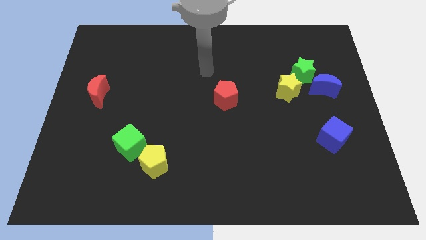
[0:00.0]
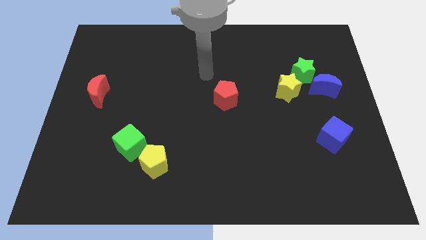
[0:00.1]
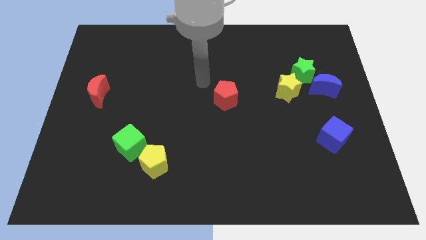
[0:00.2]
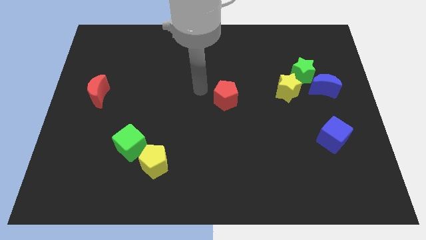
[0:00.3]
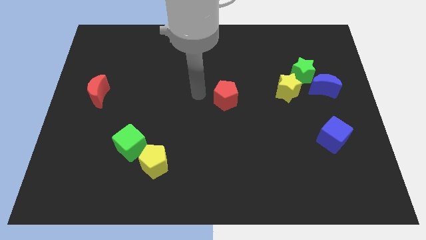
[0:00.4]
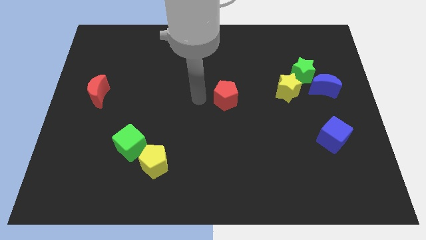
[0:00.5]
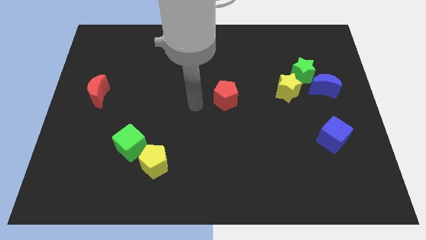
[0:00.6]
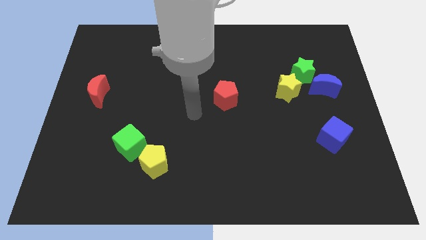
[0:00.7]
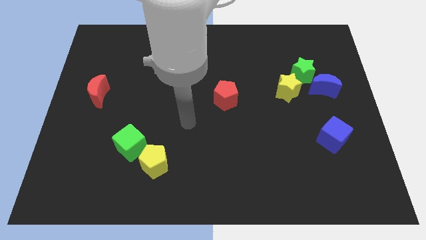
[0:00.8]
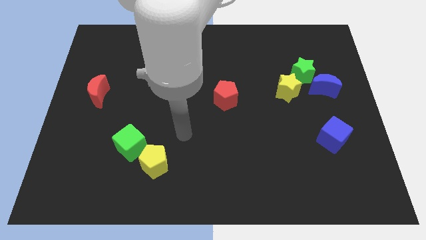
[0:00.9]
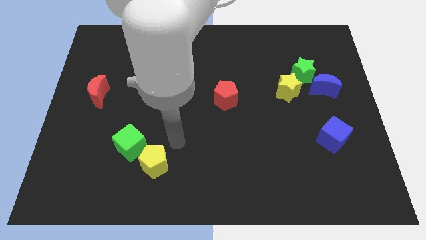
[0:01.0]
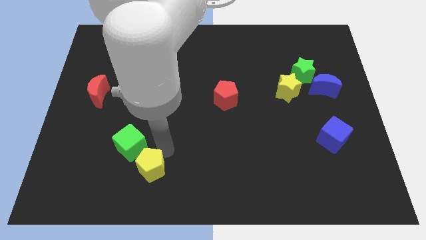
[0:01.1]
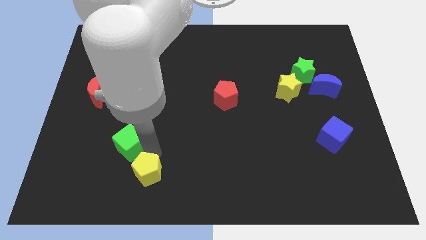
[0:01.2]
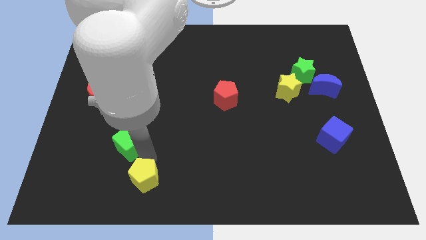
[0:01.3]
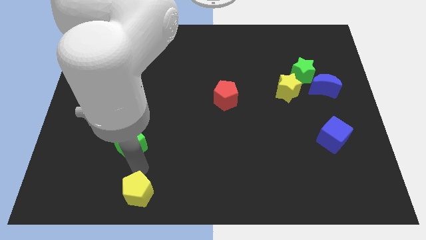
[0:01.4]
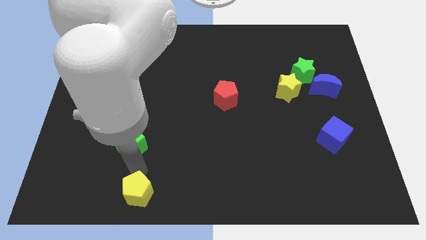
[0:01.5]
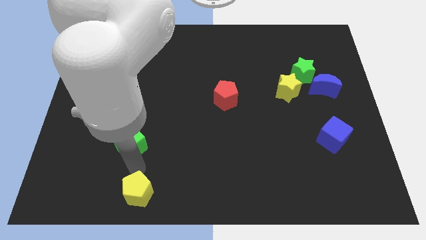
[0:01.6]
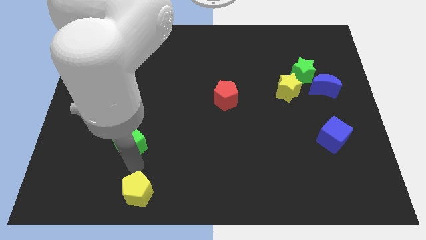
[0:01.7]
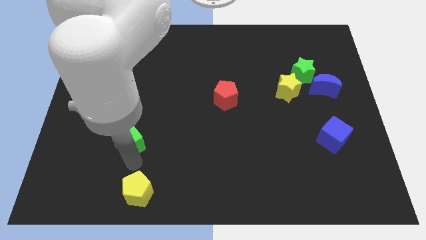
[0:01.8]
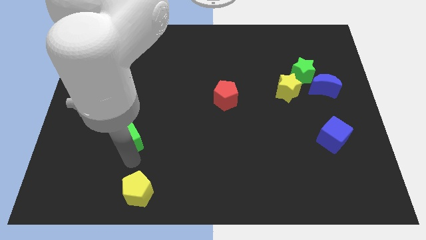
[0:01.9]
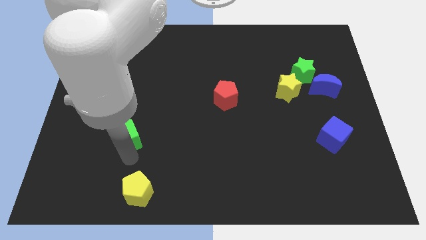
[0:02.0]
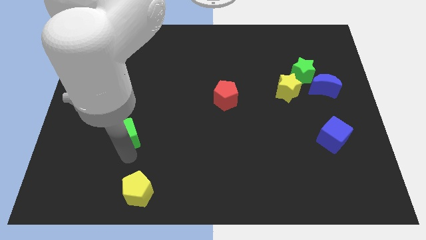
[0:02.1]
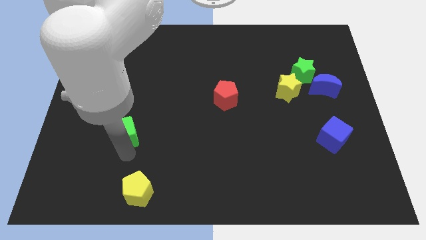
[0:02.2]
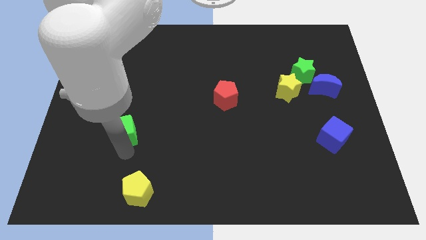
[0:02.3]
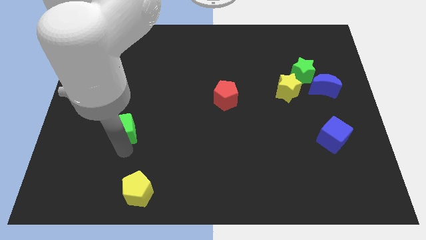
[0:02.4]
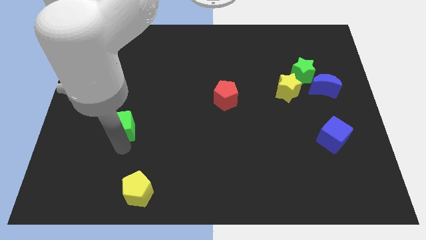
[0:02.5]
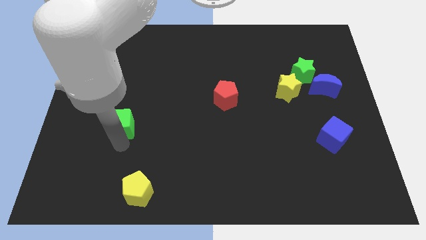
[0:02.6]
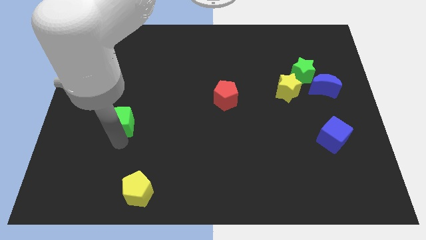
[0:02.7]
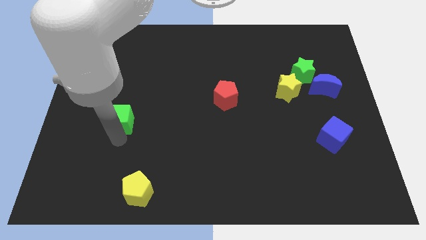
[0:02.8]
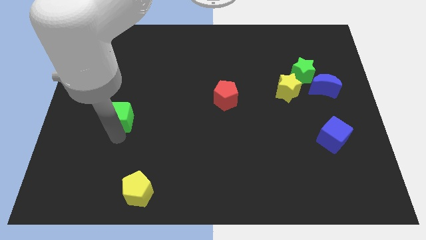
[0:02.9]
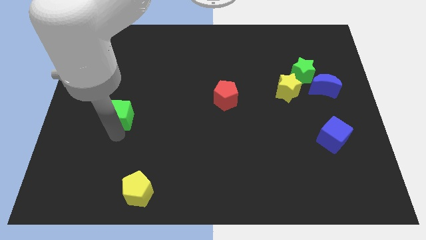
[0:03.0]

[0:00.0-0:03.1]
move the green cube upwards somewhat

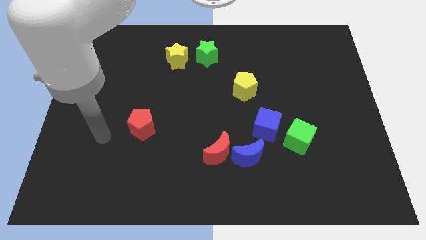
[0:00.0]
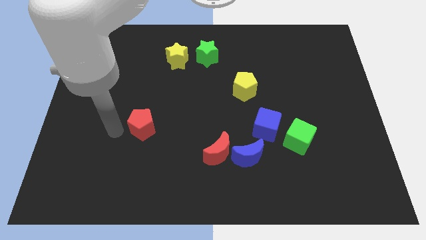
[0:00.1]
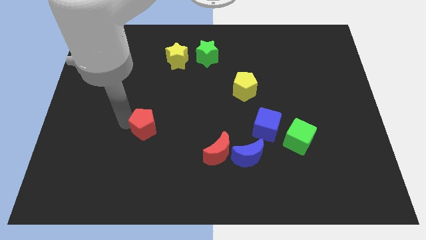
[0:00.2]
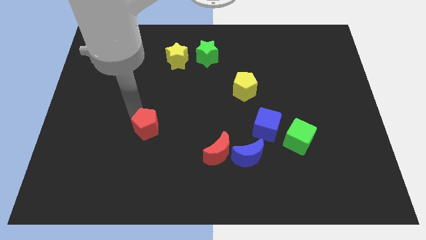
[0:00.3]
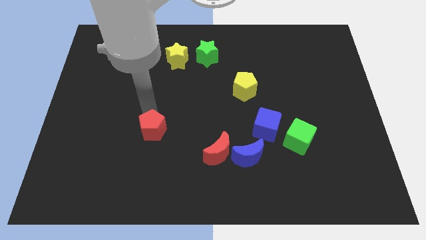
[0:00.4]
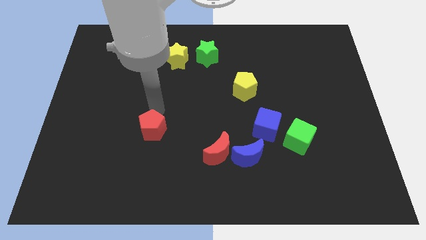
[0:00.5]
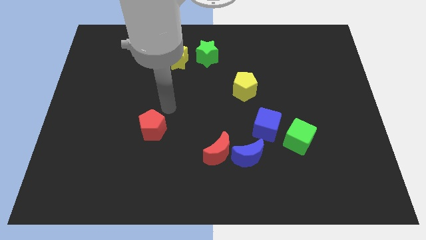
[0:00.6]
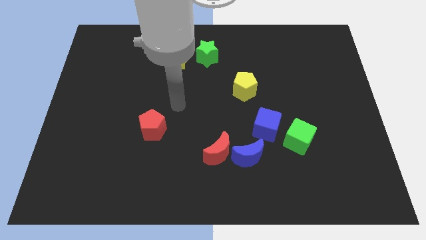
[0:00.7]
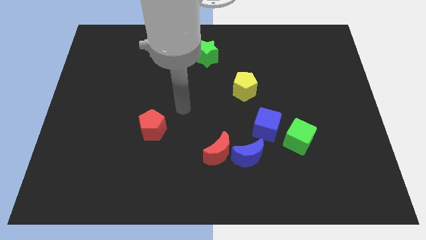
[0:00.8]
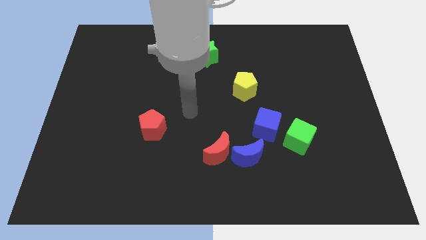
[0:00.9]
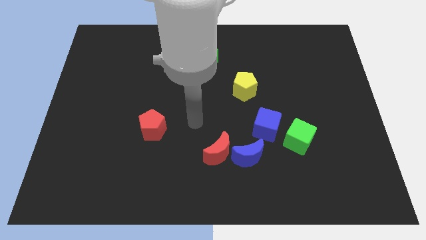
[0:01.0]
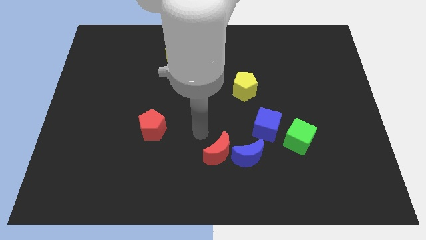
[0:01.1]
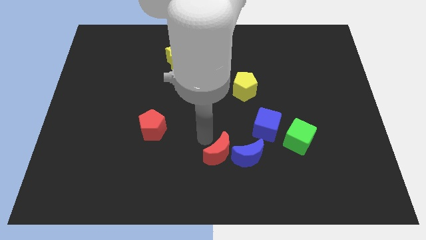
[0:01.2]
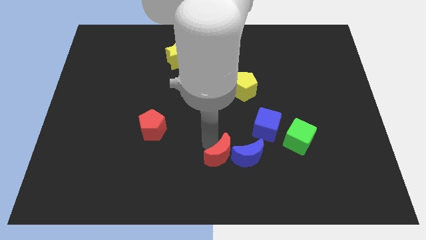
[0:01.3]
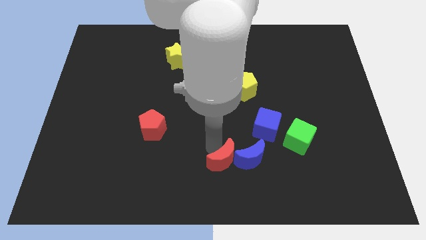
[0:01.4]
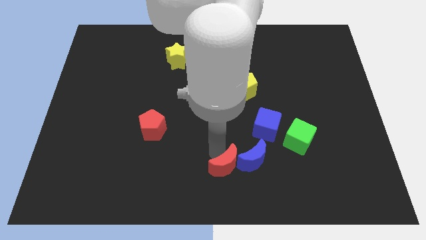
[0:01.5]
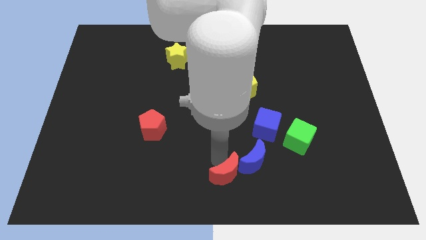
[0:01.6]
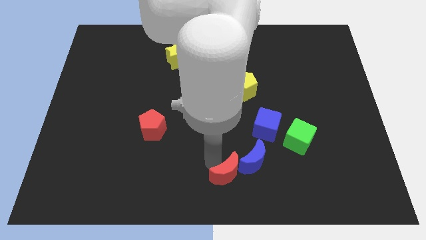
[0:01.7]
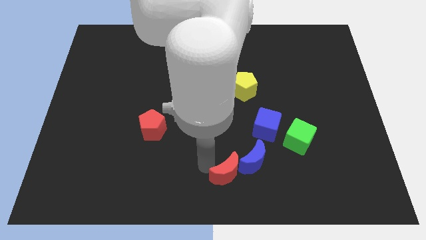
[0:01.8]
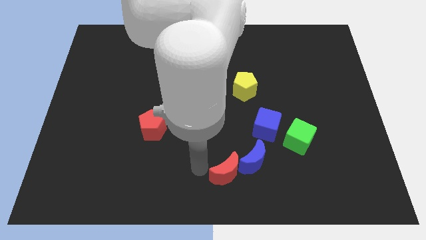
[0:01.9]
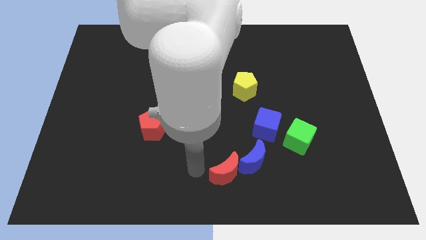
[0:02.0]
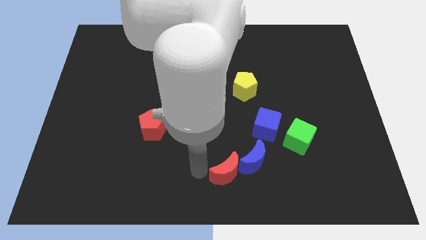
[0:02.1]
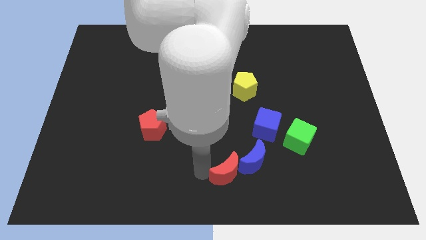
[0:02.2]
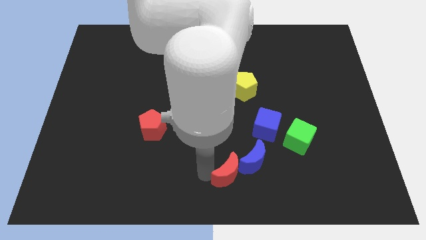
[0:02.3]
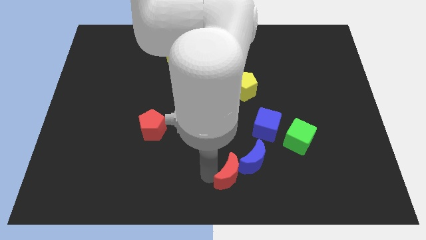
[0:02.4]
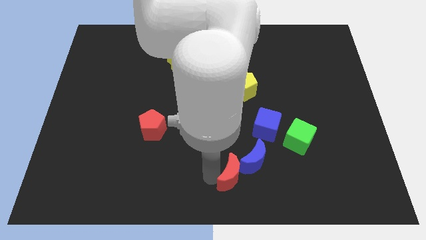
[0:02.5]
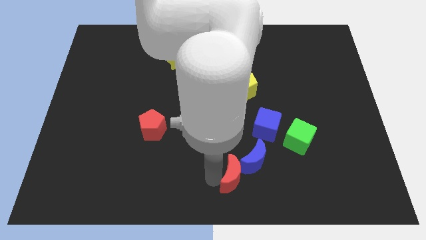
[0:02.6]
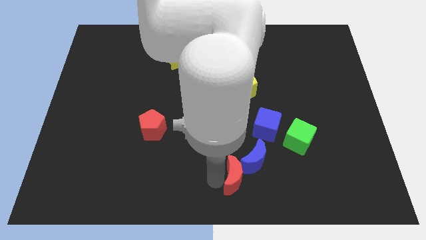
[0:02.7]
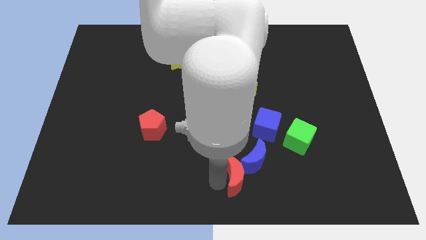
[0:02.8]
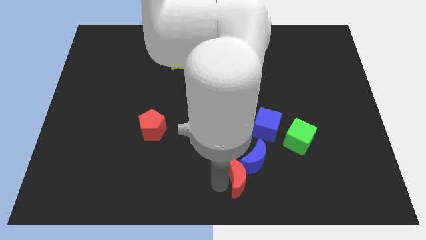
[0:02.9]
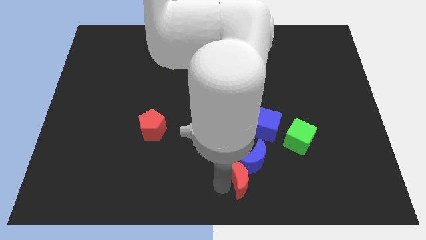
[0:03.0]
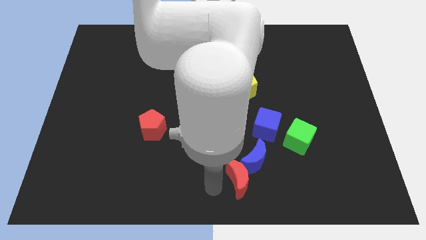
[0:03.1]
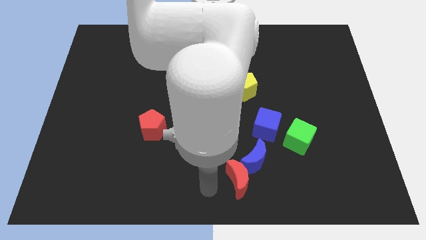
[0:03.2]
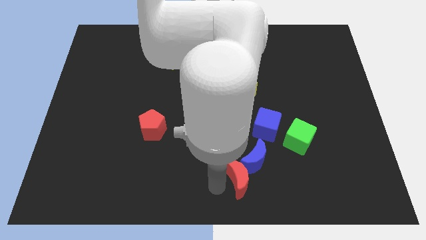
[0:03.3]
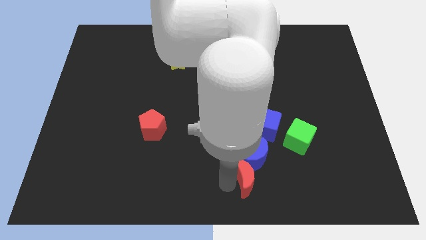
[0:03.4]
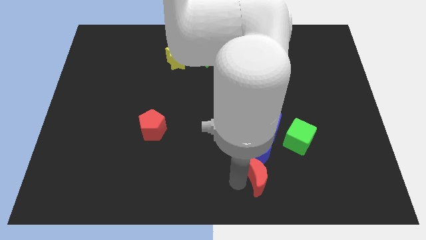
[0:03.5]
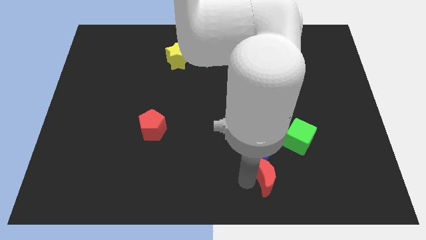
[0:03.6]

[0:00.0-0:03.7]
move the red moon right somewhat

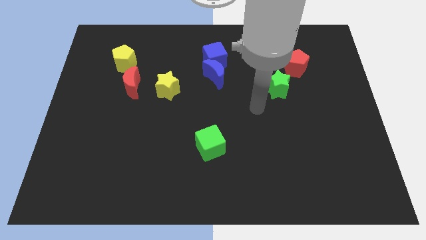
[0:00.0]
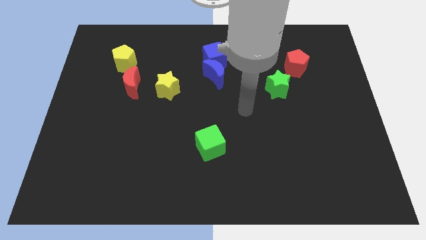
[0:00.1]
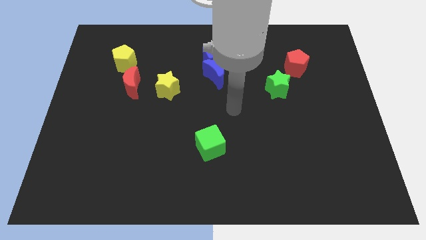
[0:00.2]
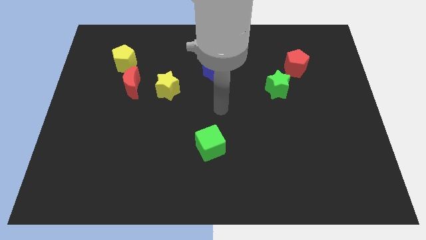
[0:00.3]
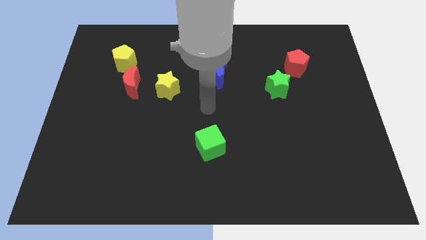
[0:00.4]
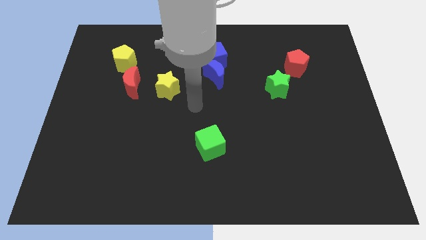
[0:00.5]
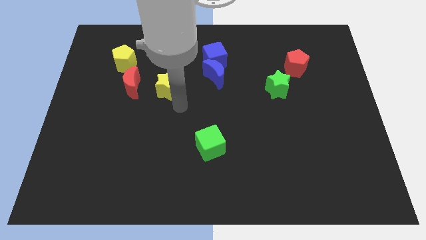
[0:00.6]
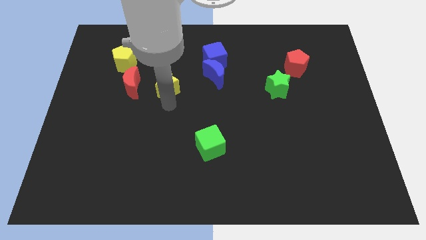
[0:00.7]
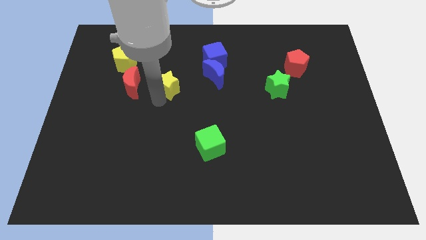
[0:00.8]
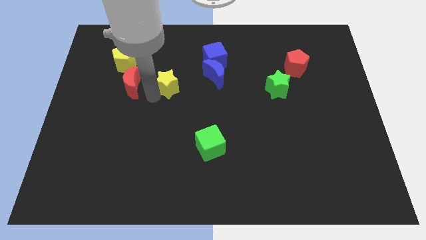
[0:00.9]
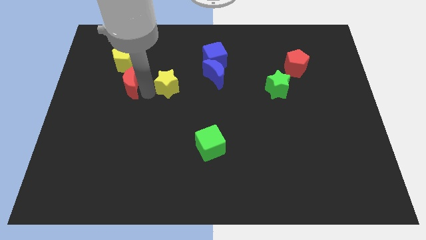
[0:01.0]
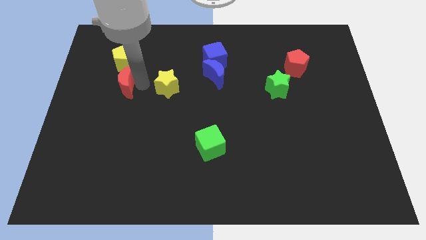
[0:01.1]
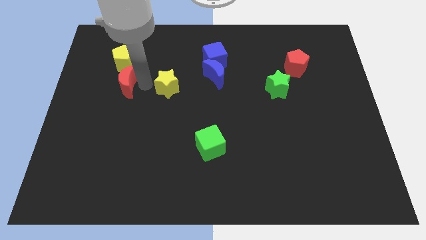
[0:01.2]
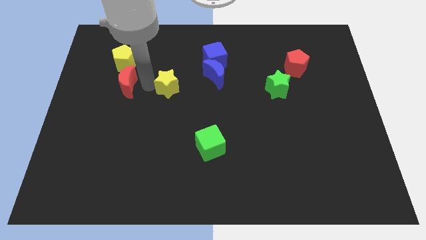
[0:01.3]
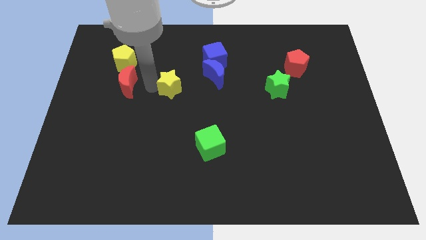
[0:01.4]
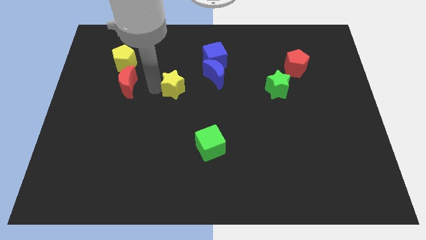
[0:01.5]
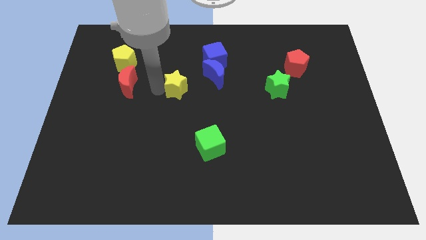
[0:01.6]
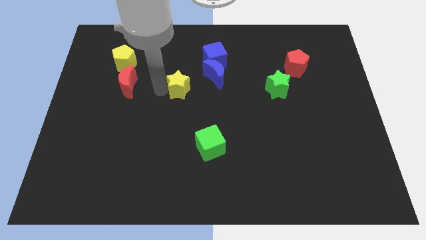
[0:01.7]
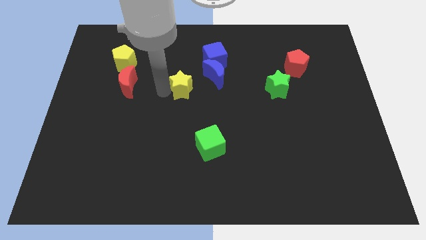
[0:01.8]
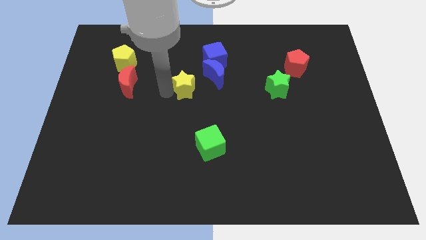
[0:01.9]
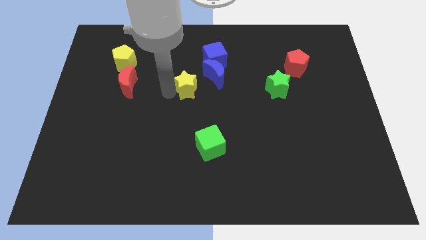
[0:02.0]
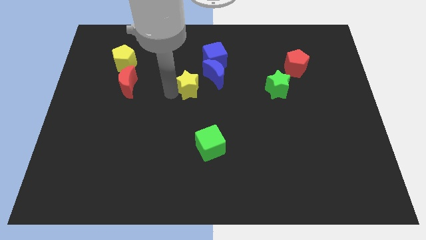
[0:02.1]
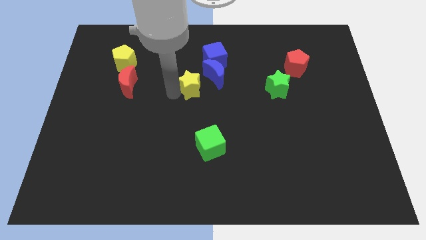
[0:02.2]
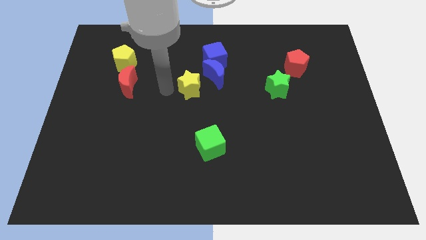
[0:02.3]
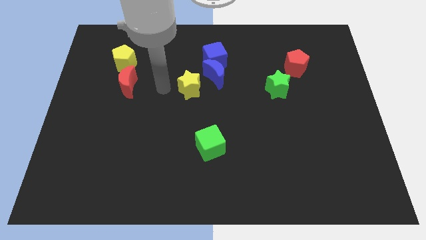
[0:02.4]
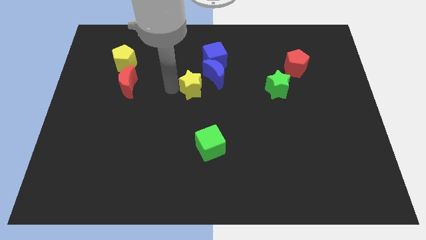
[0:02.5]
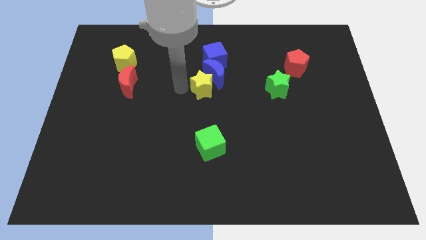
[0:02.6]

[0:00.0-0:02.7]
slide the yellow star to the right a little
